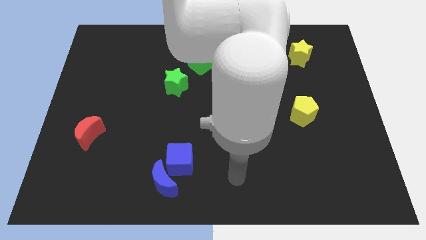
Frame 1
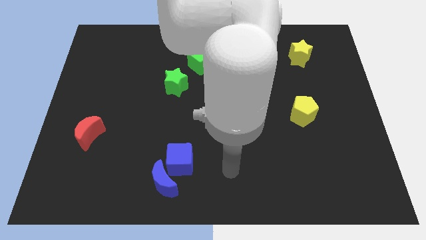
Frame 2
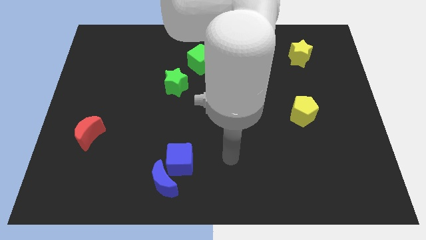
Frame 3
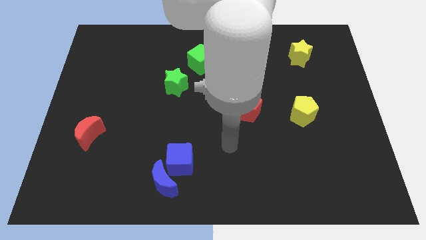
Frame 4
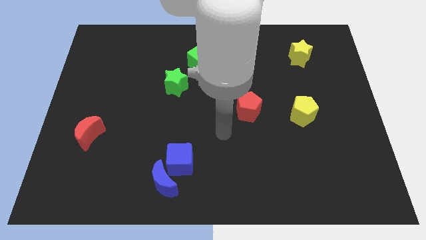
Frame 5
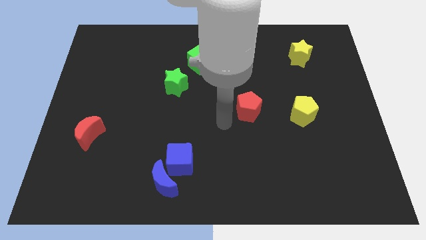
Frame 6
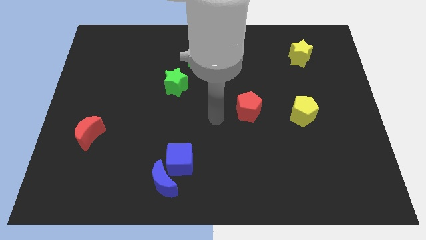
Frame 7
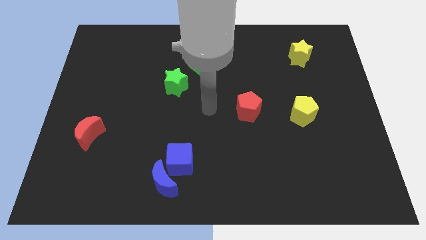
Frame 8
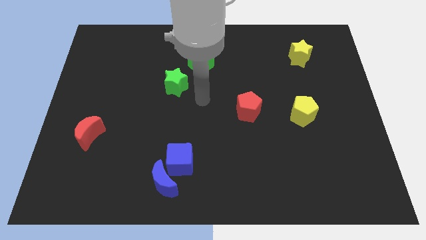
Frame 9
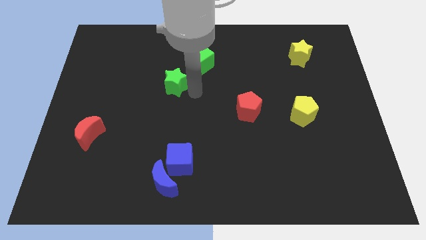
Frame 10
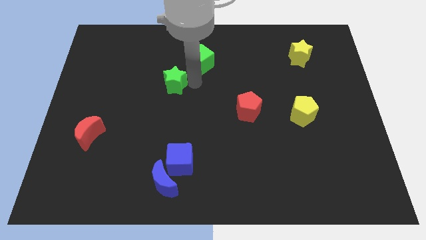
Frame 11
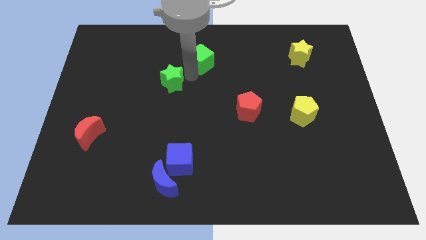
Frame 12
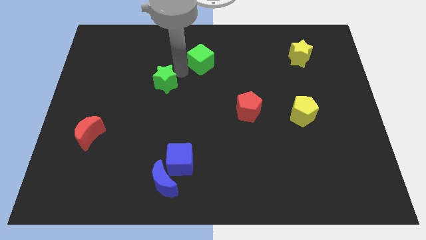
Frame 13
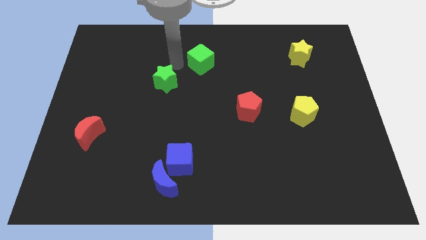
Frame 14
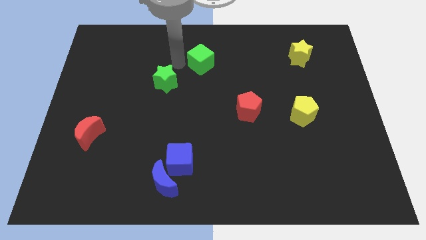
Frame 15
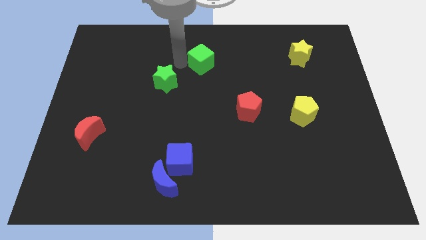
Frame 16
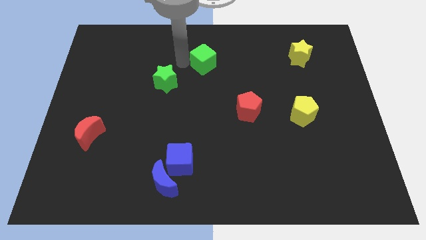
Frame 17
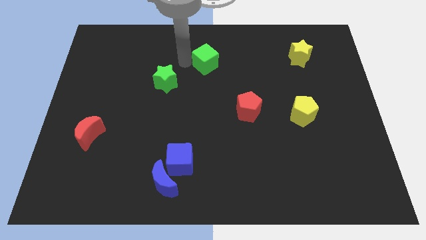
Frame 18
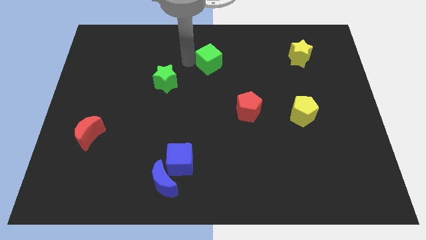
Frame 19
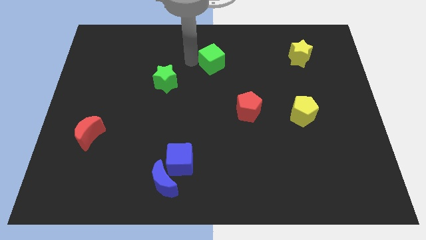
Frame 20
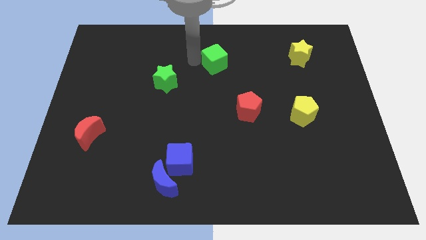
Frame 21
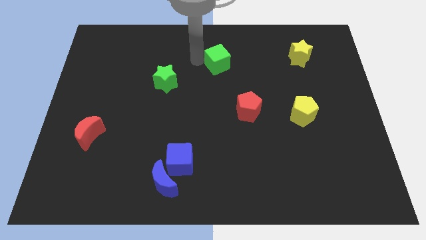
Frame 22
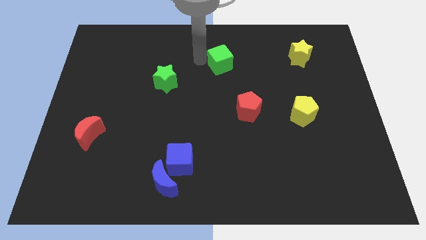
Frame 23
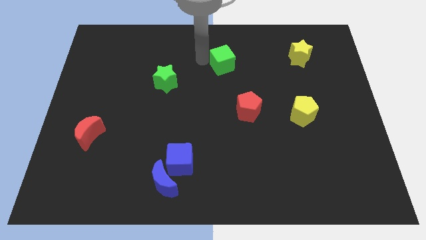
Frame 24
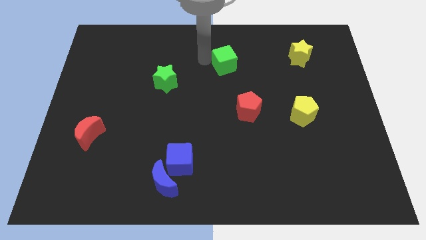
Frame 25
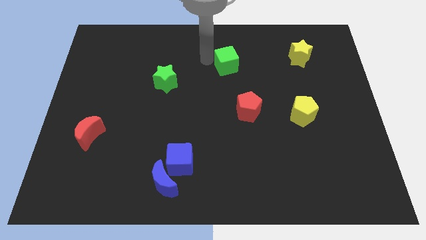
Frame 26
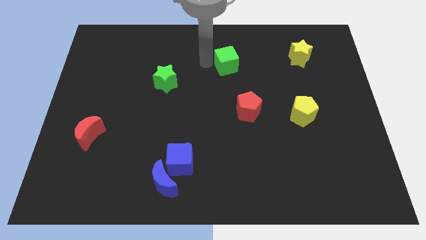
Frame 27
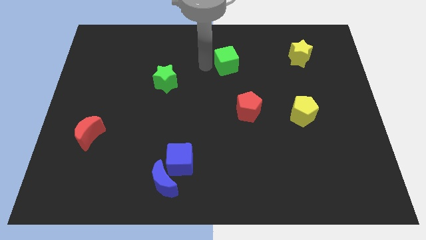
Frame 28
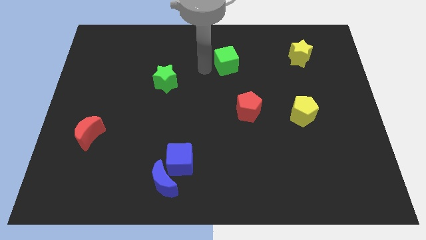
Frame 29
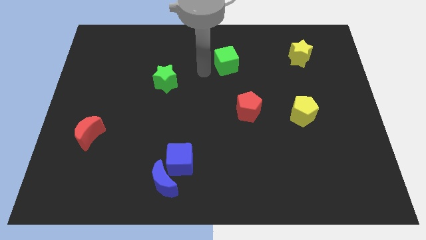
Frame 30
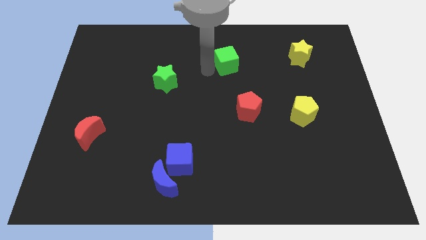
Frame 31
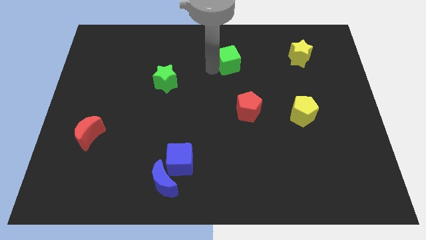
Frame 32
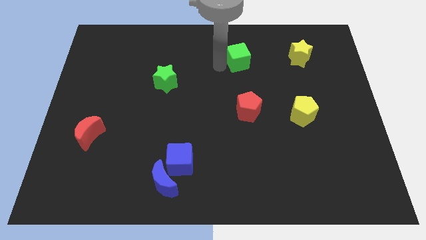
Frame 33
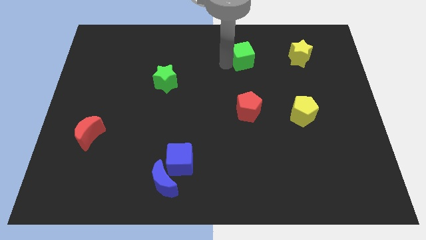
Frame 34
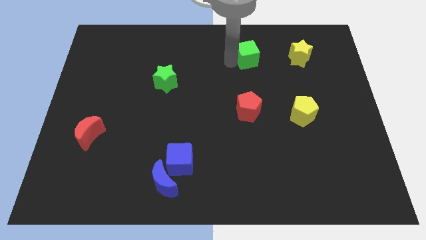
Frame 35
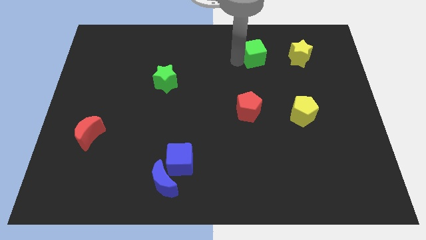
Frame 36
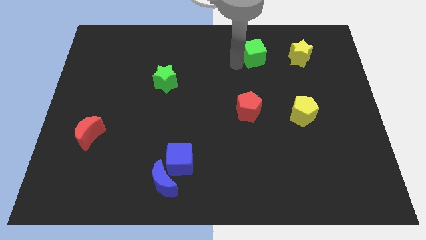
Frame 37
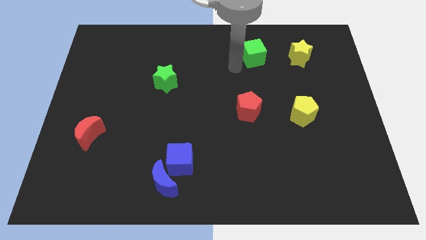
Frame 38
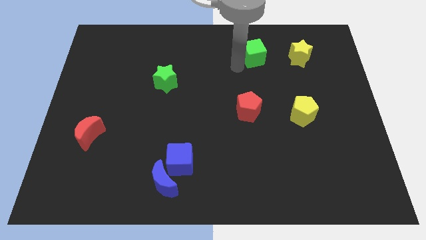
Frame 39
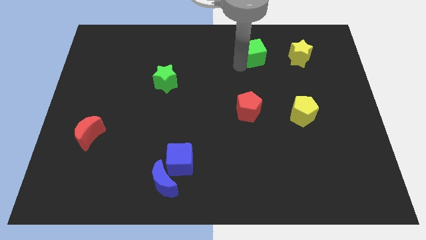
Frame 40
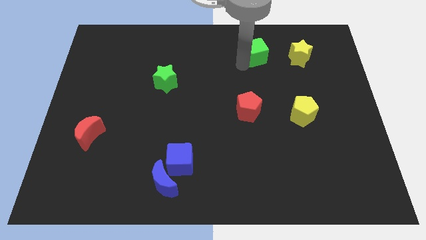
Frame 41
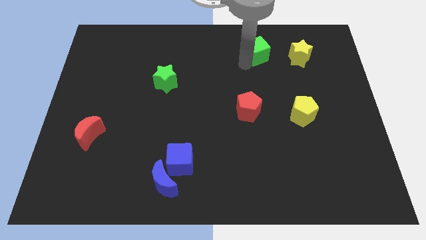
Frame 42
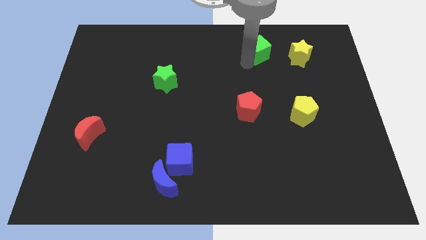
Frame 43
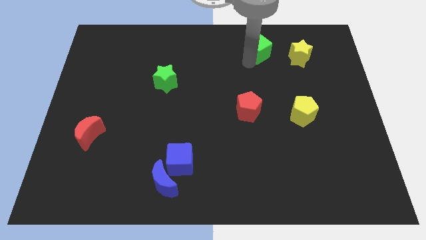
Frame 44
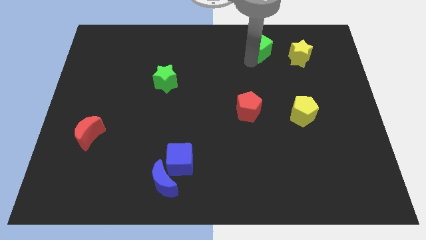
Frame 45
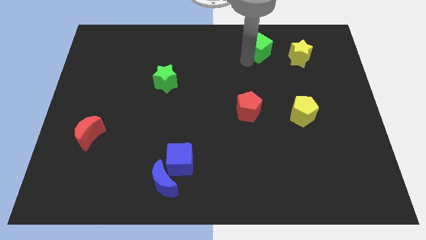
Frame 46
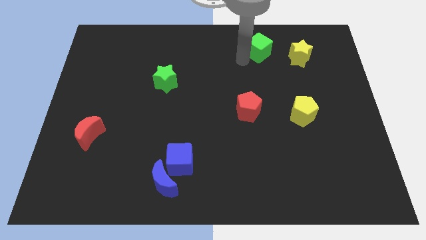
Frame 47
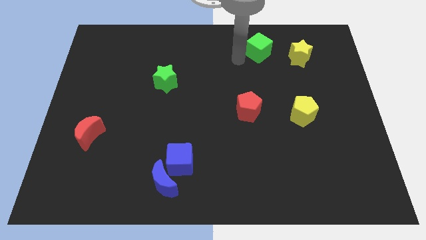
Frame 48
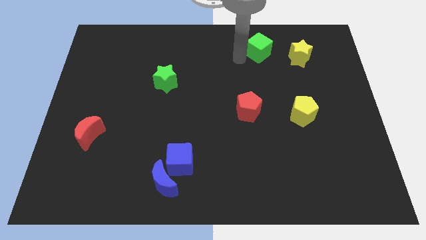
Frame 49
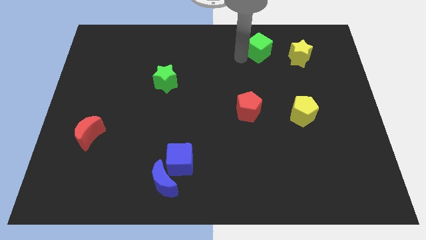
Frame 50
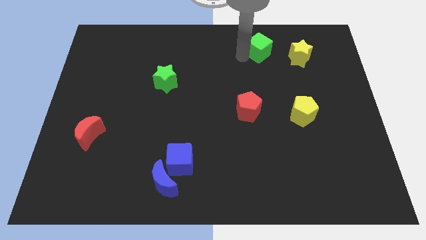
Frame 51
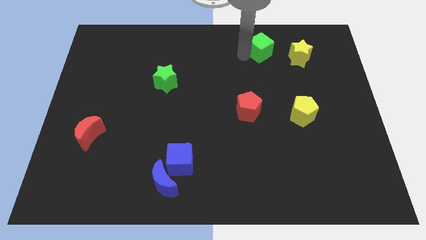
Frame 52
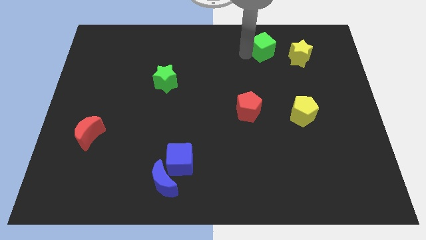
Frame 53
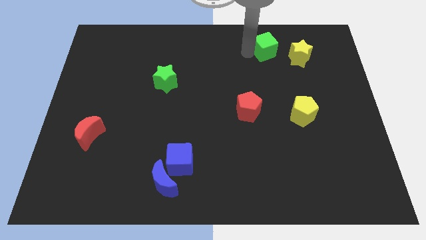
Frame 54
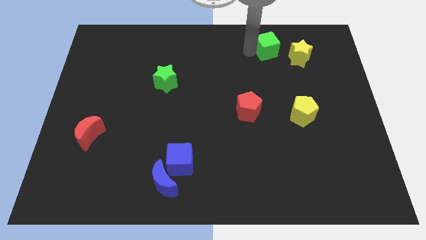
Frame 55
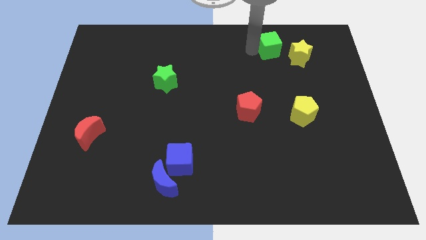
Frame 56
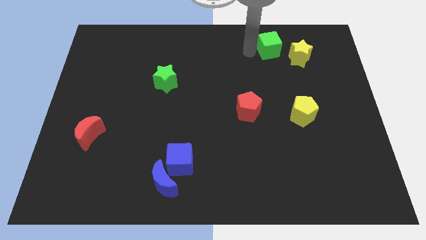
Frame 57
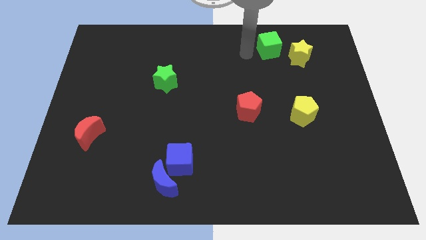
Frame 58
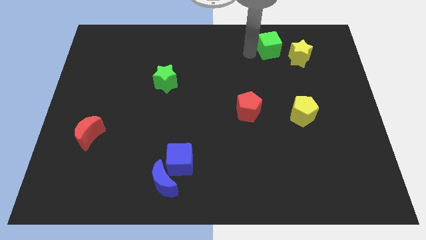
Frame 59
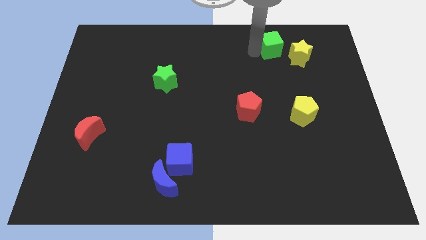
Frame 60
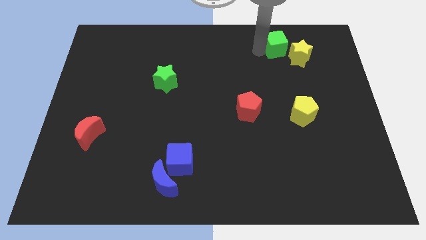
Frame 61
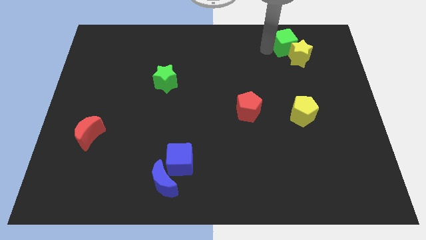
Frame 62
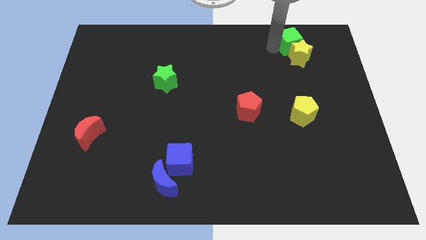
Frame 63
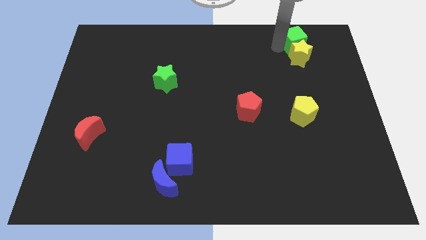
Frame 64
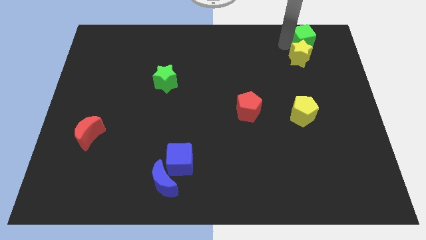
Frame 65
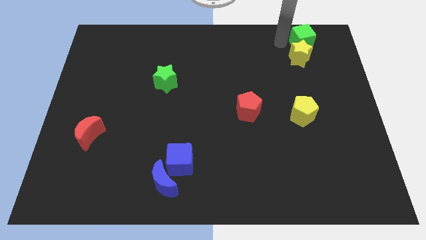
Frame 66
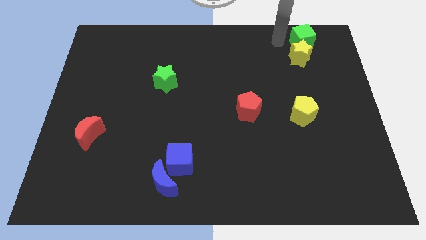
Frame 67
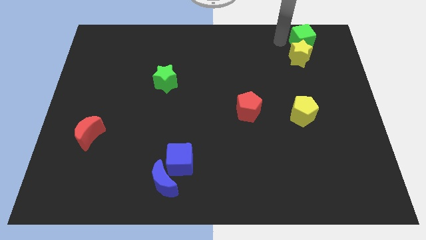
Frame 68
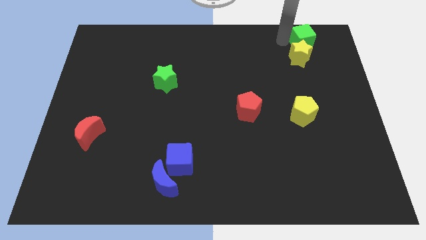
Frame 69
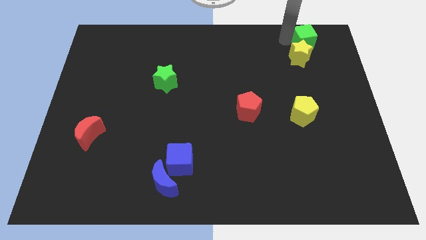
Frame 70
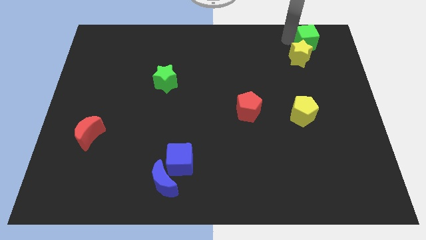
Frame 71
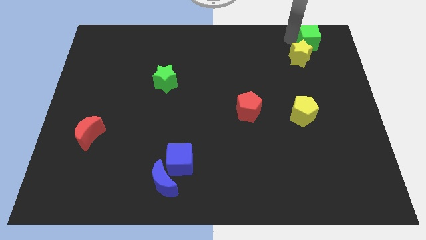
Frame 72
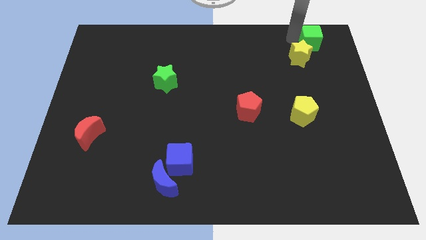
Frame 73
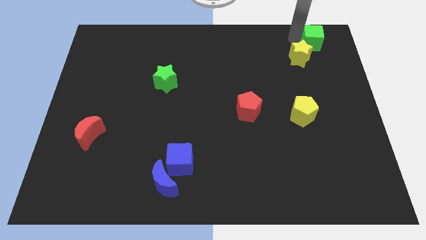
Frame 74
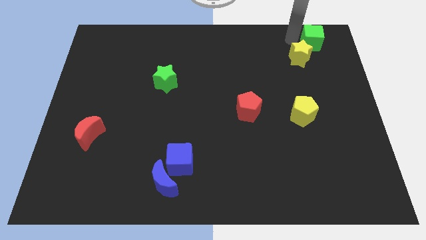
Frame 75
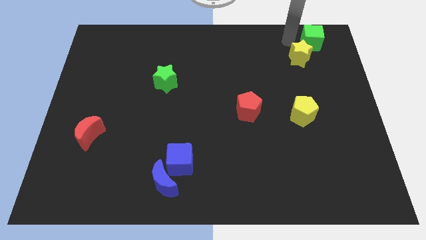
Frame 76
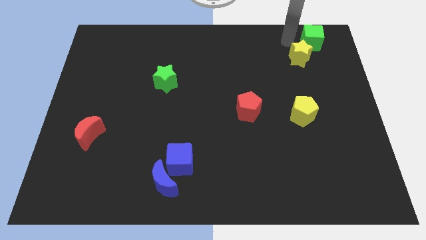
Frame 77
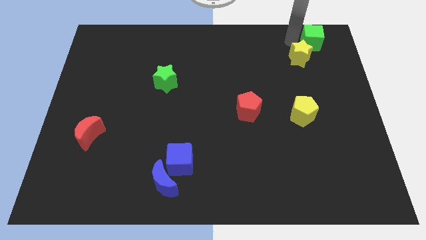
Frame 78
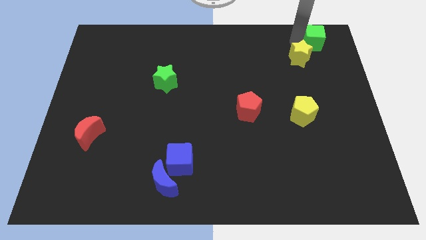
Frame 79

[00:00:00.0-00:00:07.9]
put the green cube to the top right of the board
